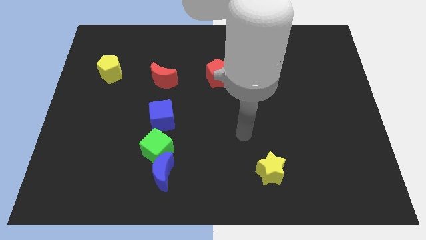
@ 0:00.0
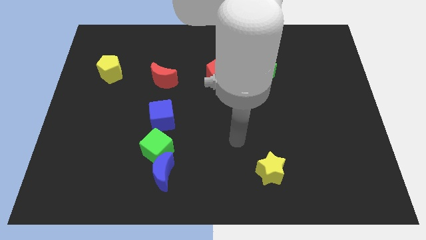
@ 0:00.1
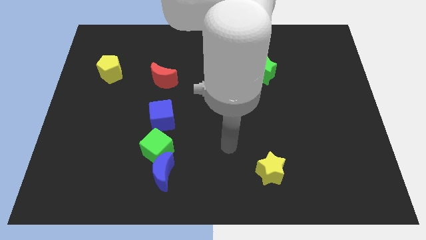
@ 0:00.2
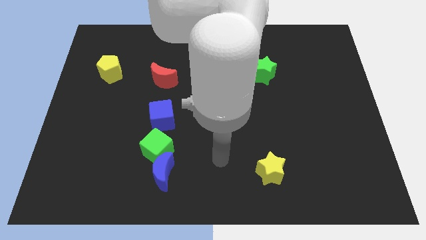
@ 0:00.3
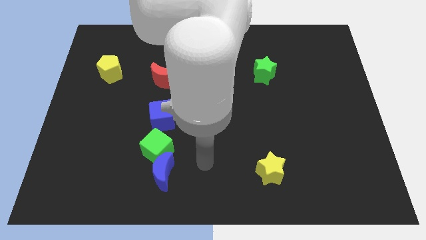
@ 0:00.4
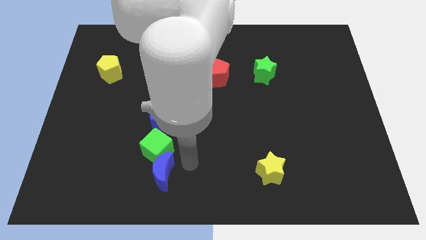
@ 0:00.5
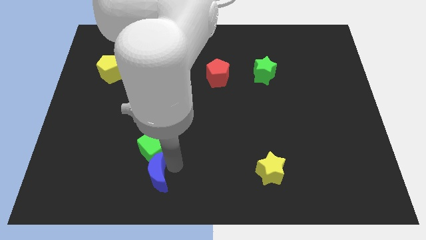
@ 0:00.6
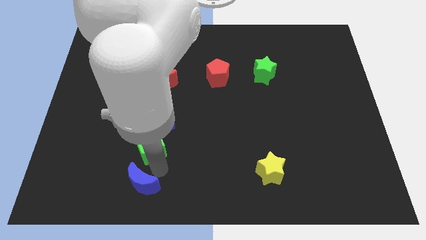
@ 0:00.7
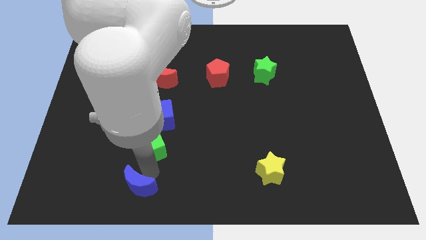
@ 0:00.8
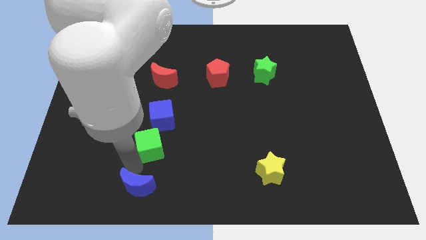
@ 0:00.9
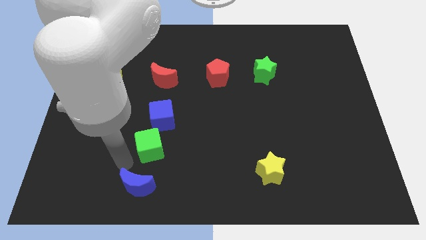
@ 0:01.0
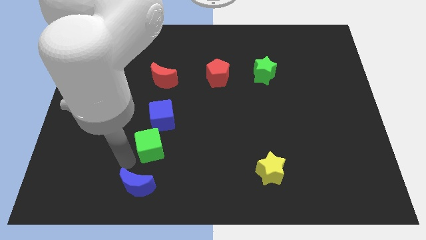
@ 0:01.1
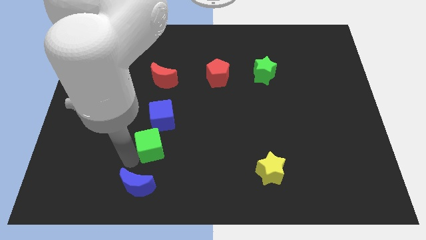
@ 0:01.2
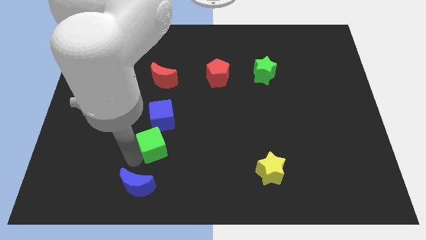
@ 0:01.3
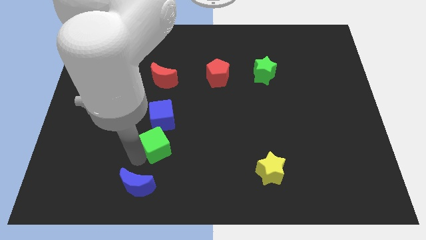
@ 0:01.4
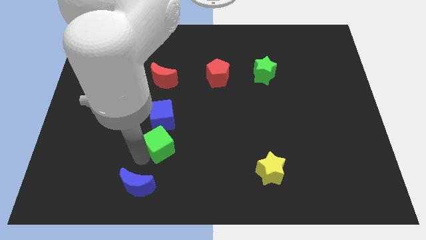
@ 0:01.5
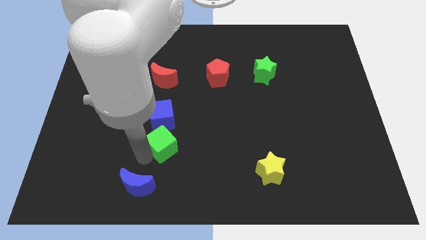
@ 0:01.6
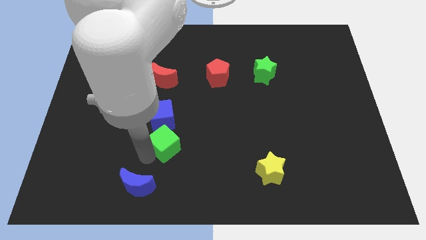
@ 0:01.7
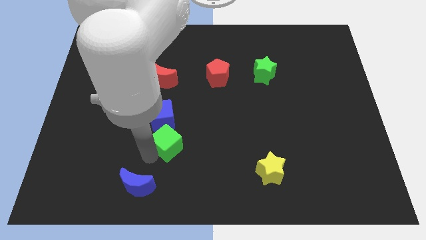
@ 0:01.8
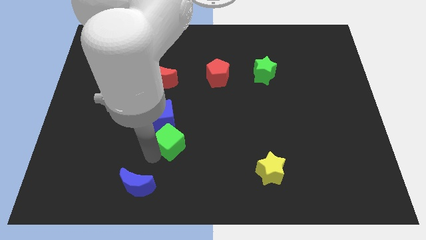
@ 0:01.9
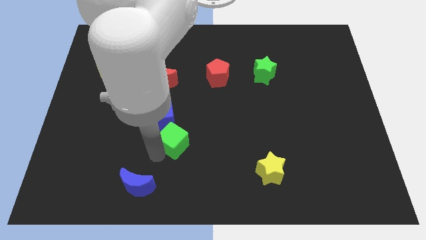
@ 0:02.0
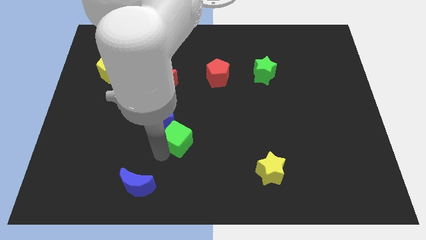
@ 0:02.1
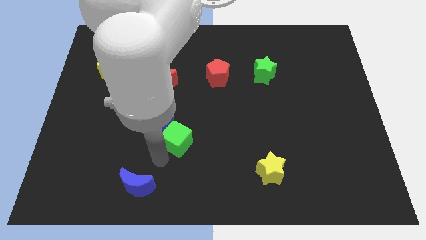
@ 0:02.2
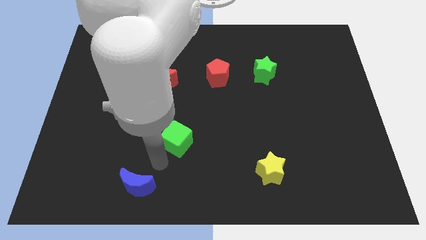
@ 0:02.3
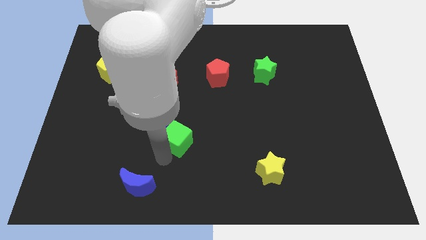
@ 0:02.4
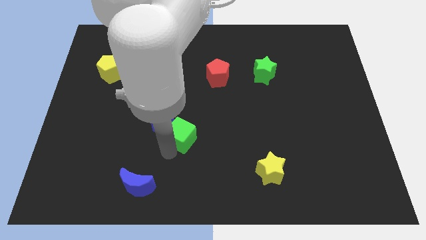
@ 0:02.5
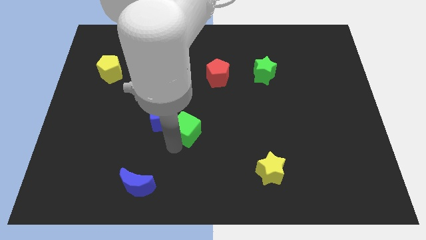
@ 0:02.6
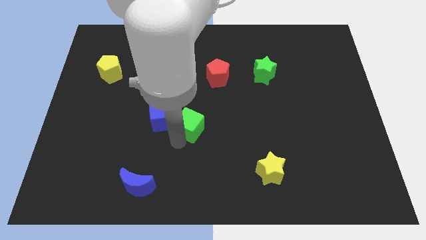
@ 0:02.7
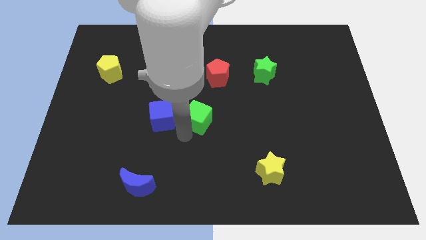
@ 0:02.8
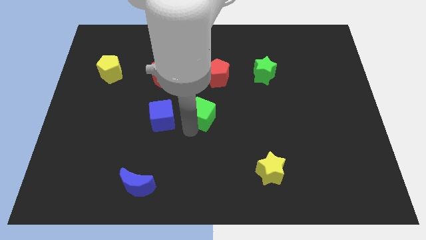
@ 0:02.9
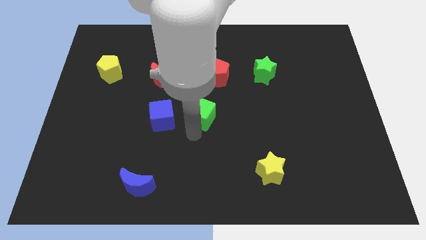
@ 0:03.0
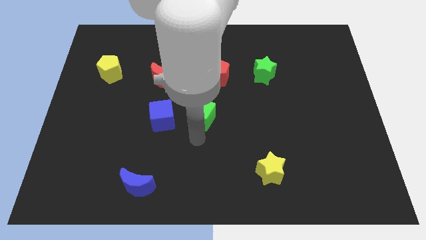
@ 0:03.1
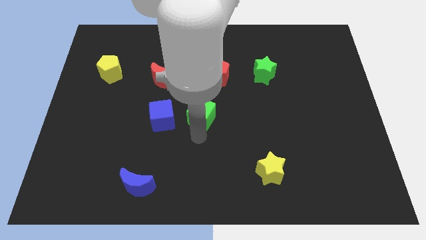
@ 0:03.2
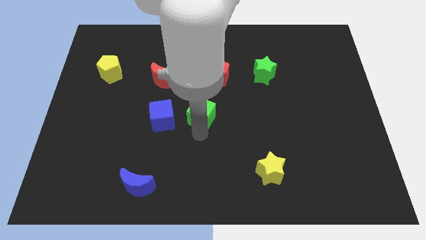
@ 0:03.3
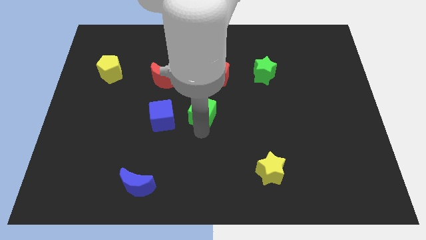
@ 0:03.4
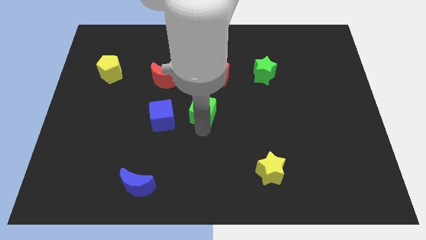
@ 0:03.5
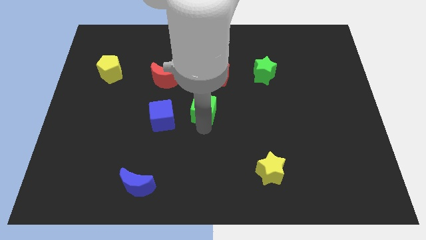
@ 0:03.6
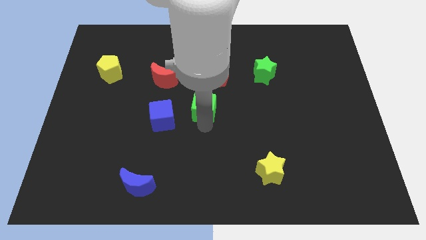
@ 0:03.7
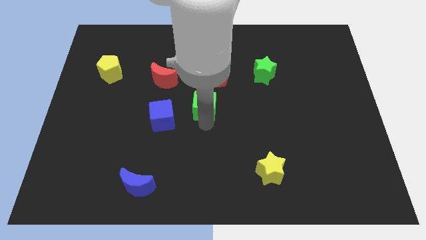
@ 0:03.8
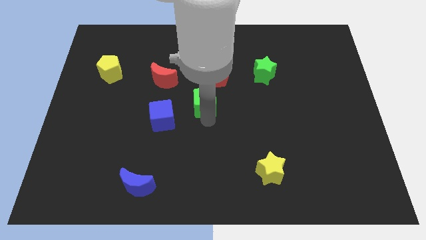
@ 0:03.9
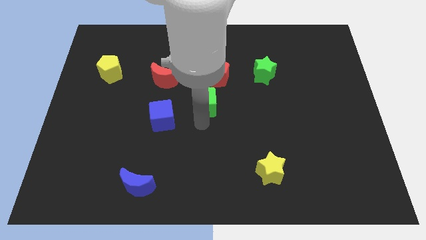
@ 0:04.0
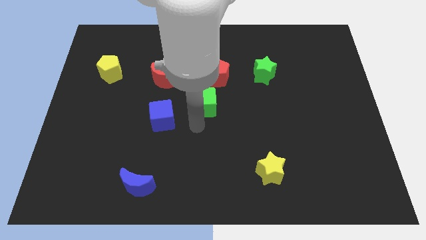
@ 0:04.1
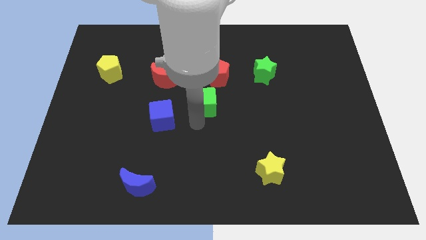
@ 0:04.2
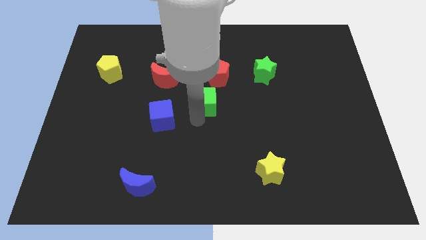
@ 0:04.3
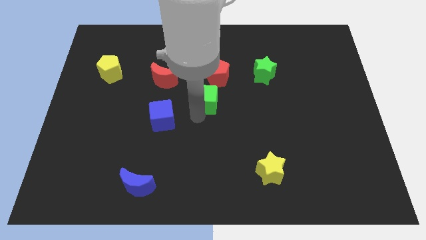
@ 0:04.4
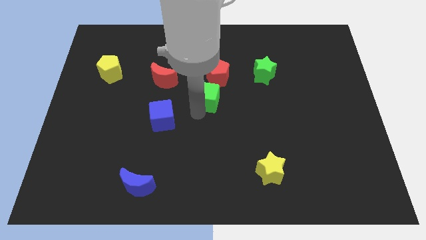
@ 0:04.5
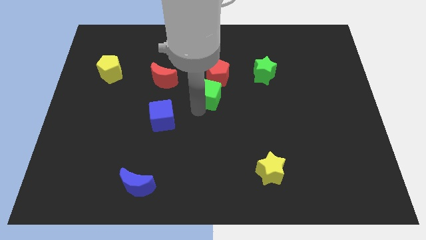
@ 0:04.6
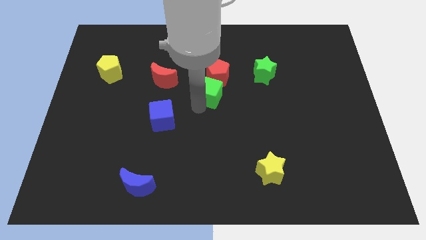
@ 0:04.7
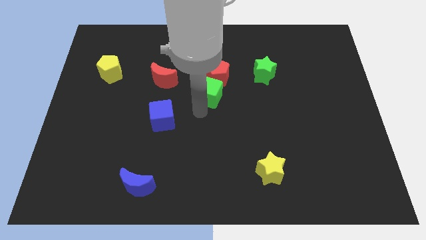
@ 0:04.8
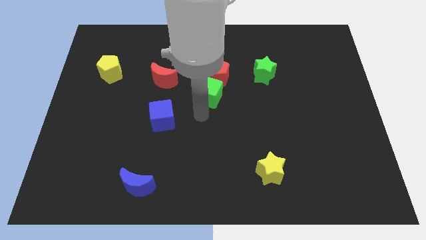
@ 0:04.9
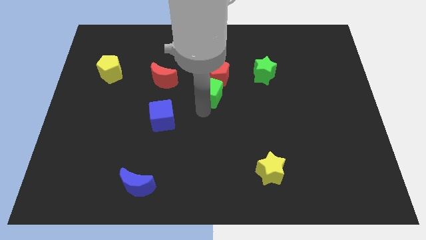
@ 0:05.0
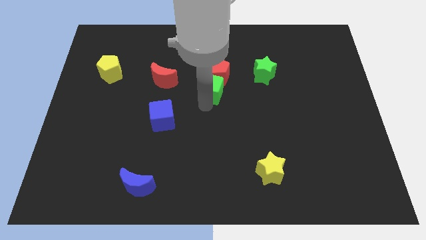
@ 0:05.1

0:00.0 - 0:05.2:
move the green cube close to the red pentagon

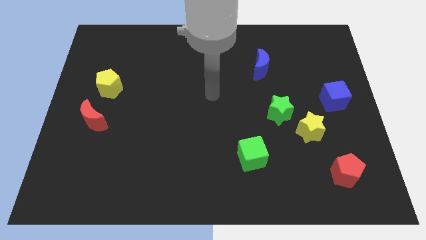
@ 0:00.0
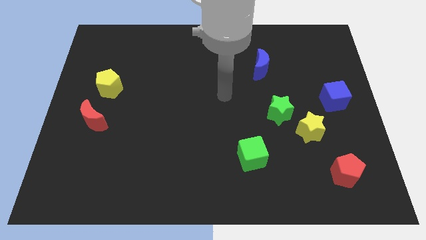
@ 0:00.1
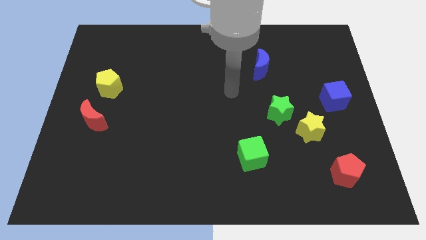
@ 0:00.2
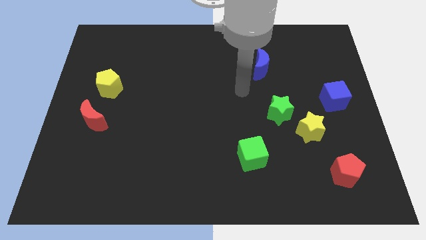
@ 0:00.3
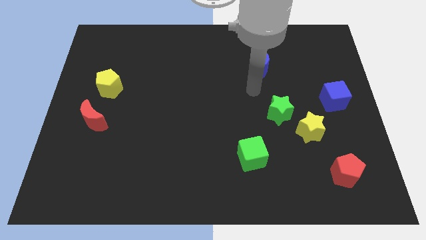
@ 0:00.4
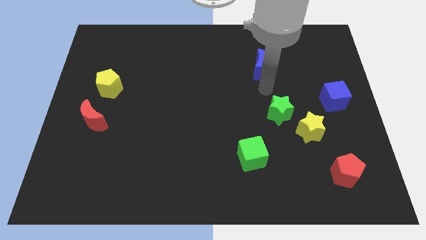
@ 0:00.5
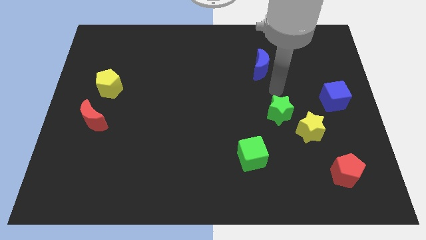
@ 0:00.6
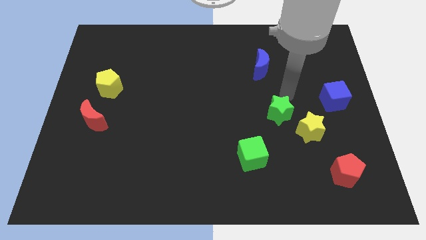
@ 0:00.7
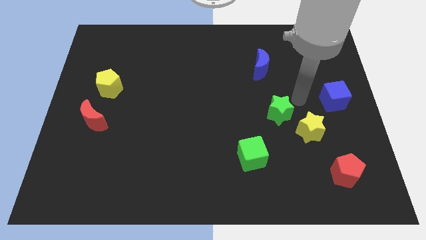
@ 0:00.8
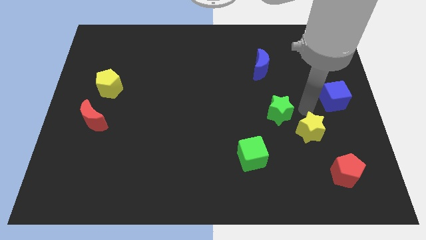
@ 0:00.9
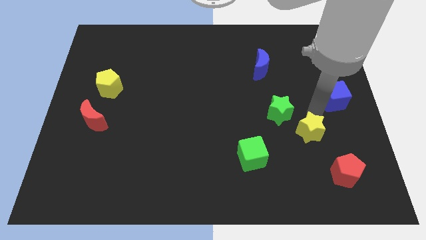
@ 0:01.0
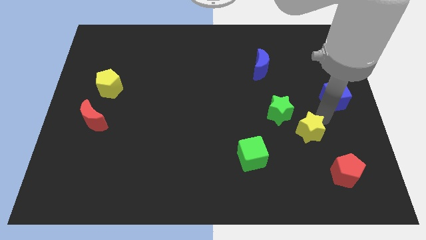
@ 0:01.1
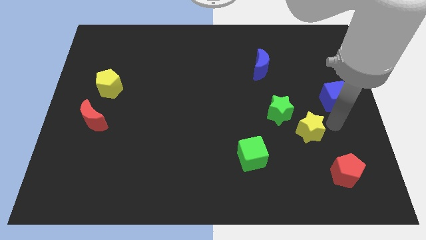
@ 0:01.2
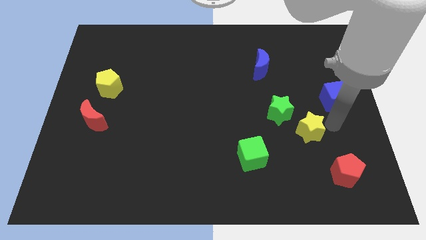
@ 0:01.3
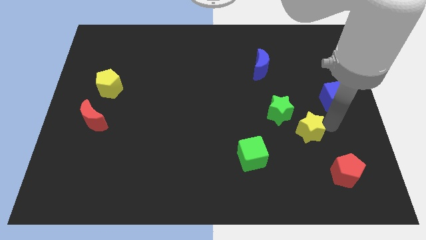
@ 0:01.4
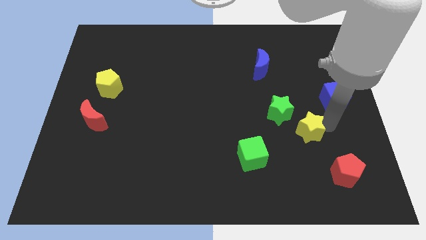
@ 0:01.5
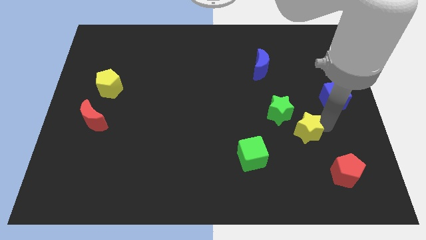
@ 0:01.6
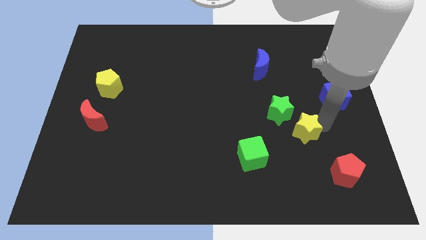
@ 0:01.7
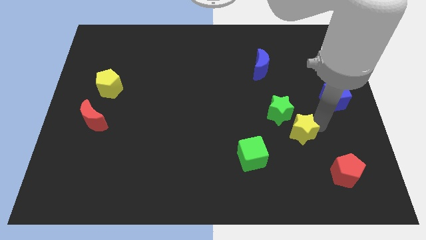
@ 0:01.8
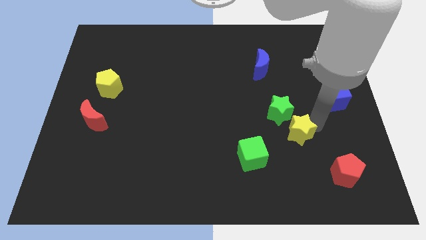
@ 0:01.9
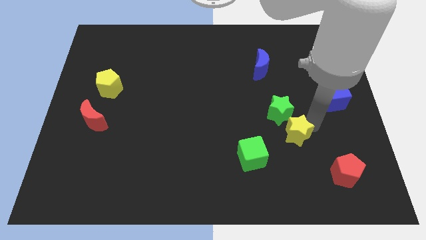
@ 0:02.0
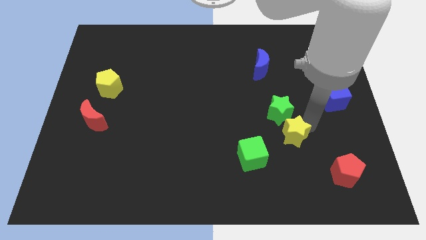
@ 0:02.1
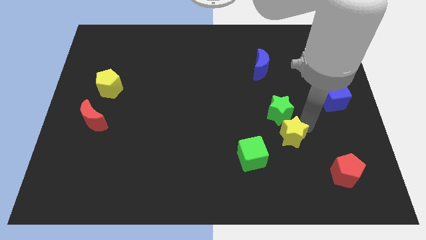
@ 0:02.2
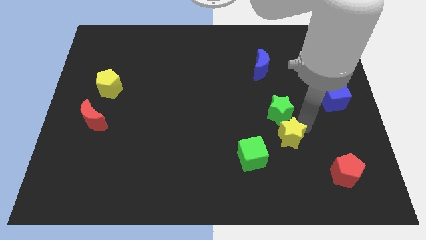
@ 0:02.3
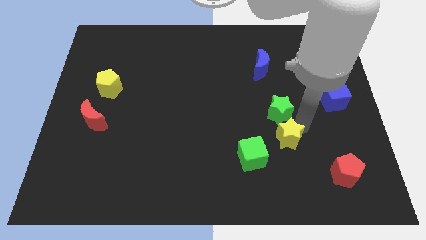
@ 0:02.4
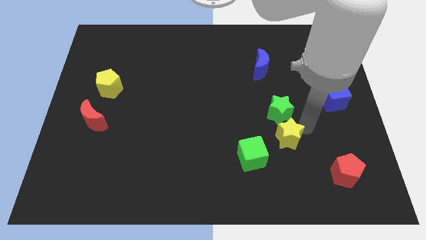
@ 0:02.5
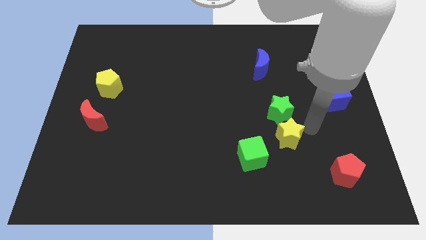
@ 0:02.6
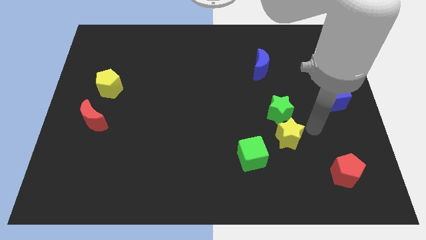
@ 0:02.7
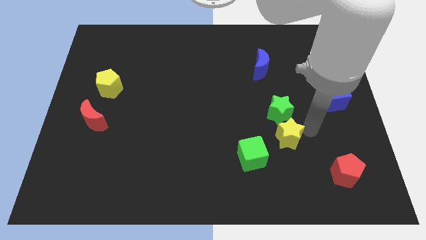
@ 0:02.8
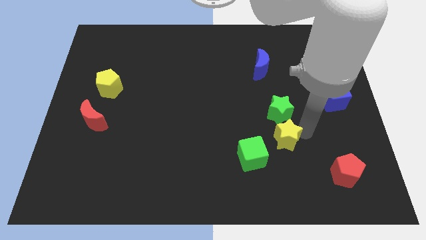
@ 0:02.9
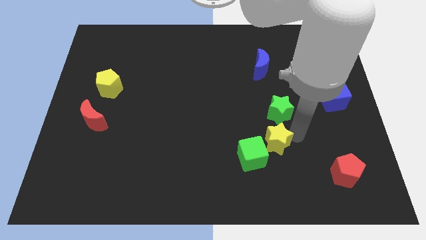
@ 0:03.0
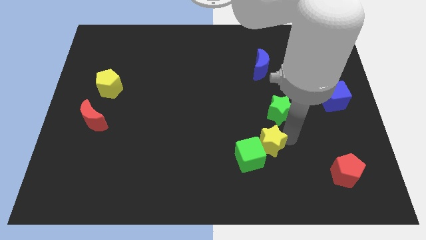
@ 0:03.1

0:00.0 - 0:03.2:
move the yellow star next to the green cube
